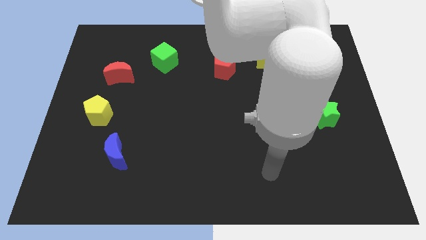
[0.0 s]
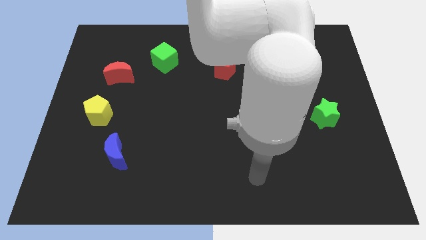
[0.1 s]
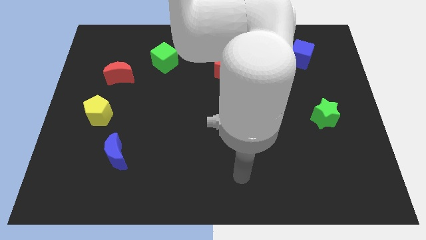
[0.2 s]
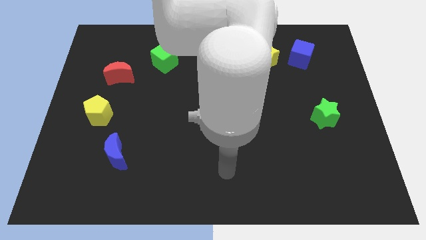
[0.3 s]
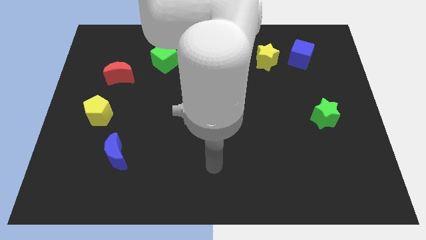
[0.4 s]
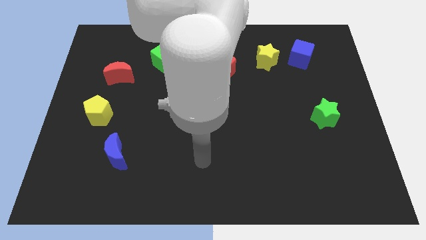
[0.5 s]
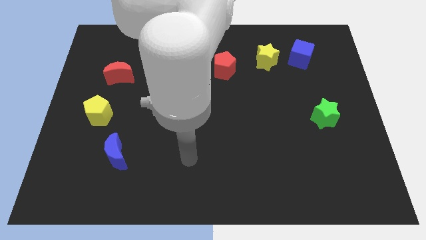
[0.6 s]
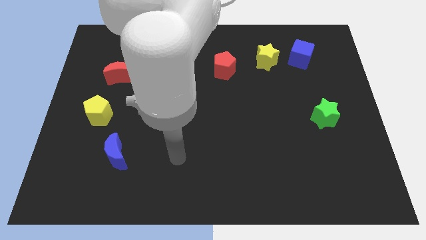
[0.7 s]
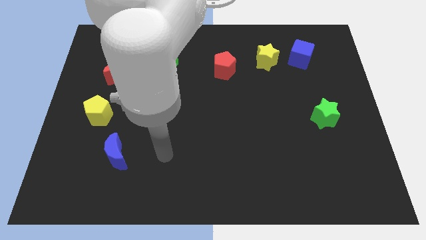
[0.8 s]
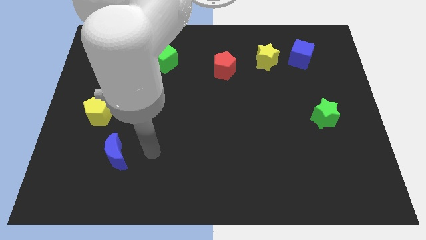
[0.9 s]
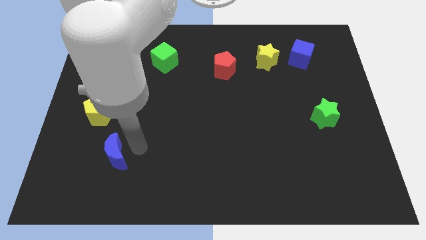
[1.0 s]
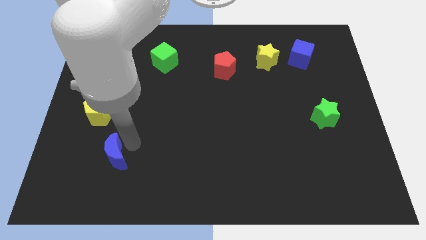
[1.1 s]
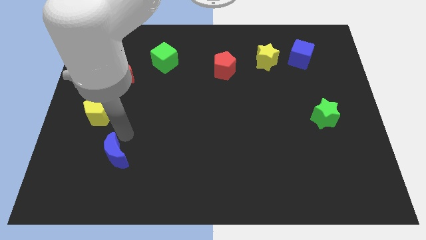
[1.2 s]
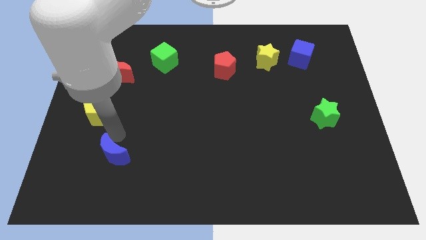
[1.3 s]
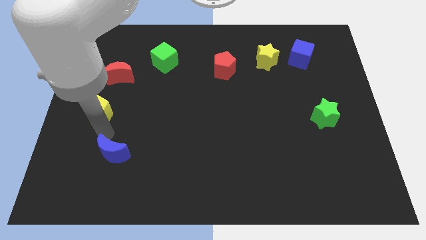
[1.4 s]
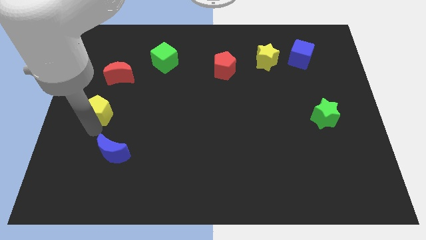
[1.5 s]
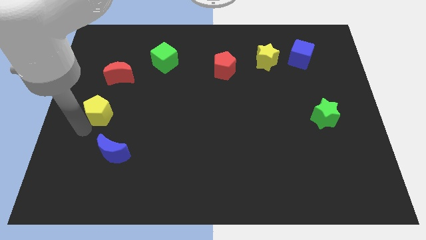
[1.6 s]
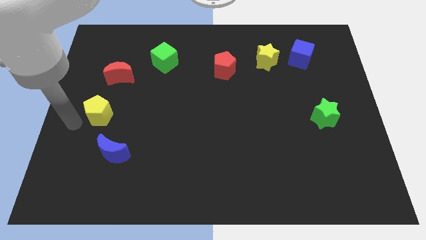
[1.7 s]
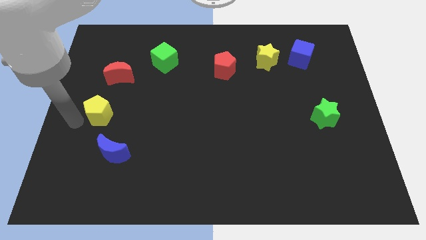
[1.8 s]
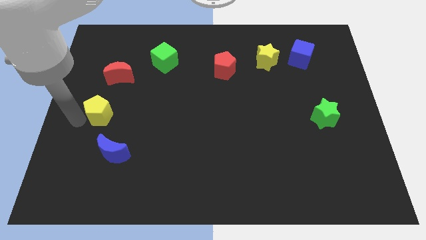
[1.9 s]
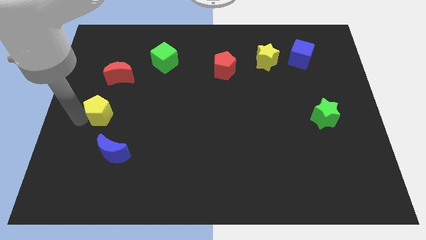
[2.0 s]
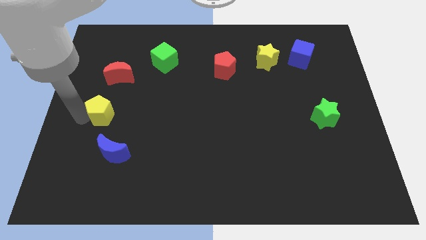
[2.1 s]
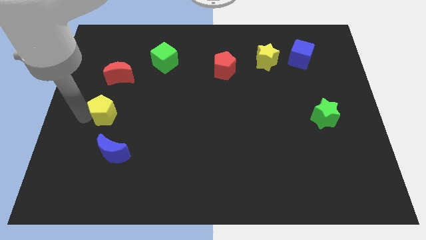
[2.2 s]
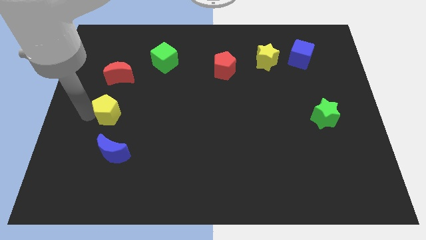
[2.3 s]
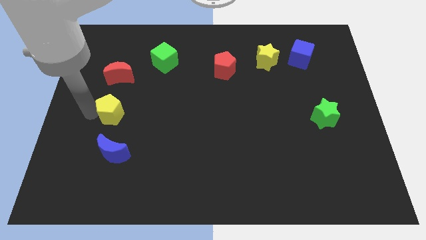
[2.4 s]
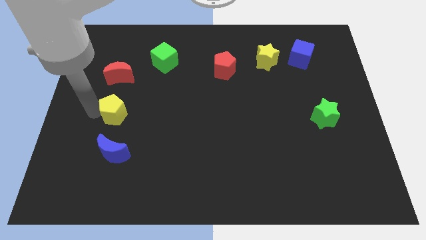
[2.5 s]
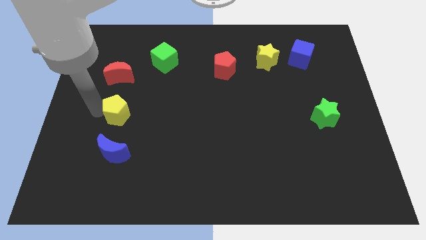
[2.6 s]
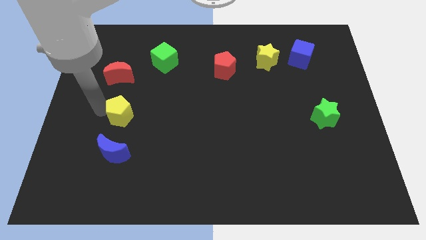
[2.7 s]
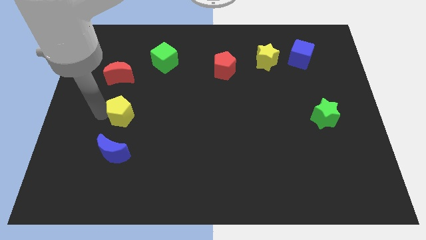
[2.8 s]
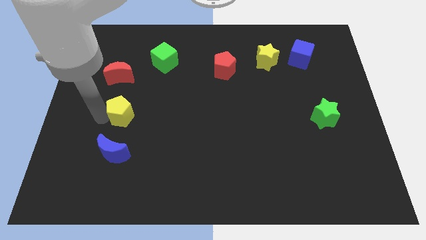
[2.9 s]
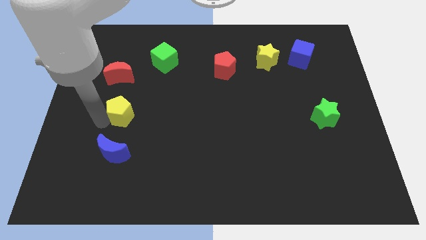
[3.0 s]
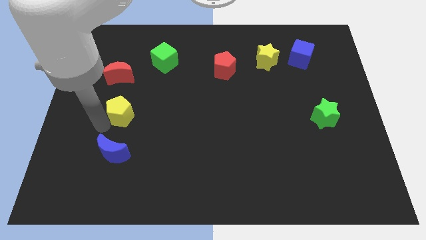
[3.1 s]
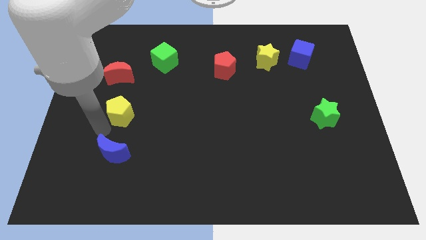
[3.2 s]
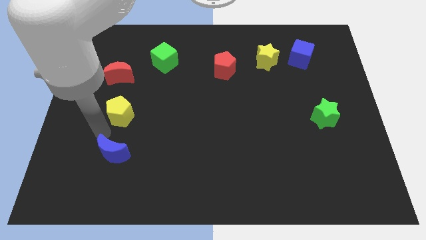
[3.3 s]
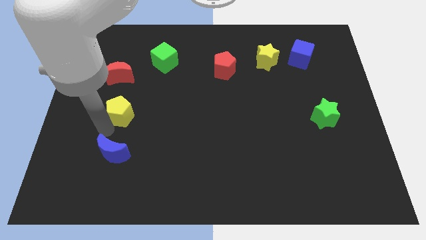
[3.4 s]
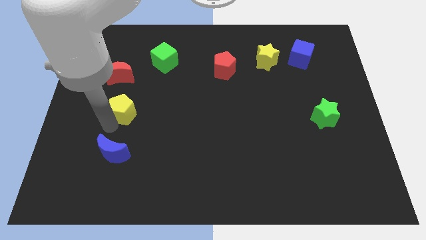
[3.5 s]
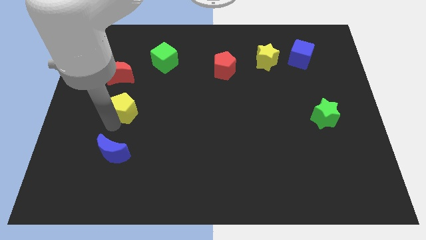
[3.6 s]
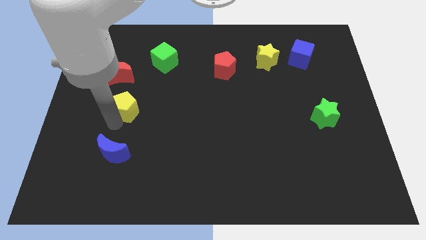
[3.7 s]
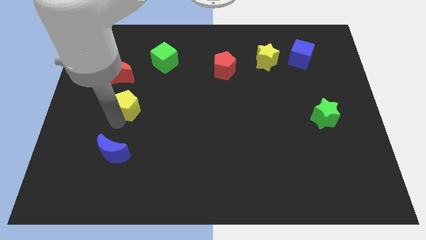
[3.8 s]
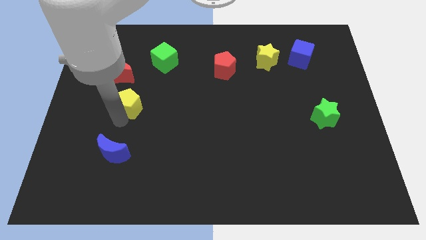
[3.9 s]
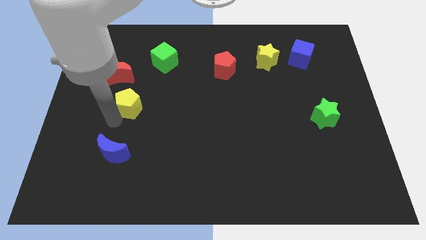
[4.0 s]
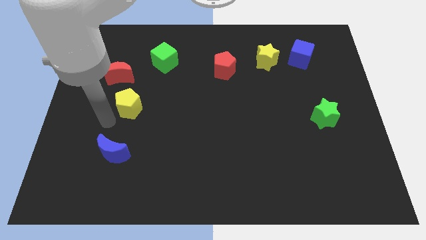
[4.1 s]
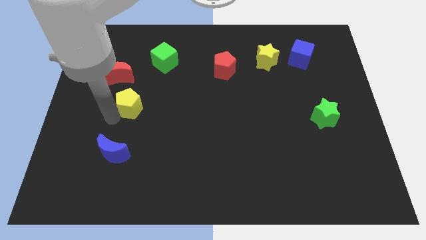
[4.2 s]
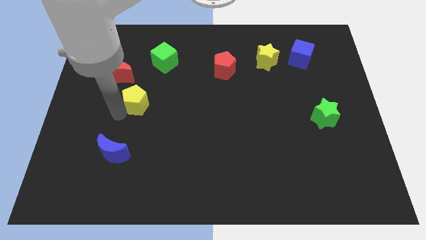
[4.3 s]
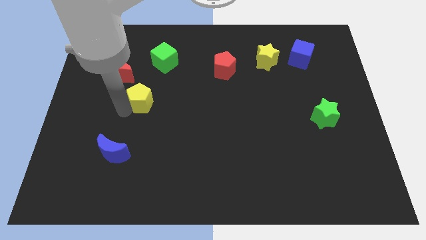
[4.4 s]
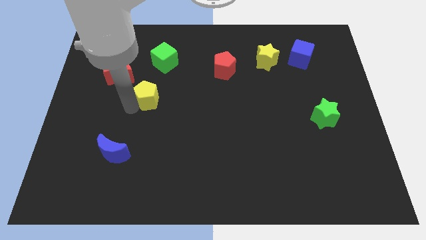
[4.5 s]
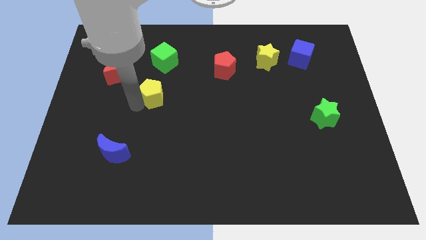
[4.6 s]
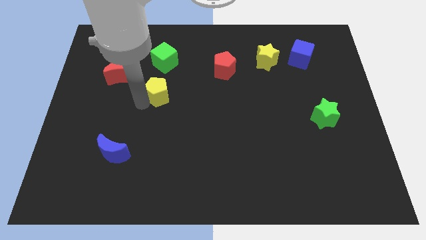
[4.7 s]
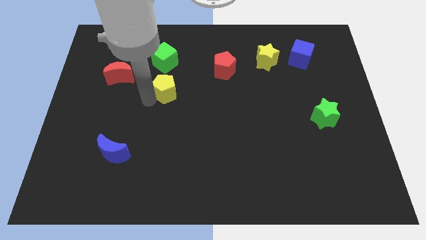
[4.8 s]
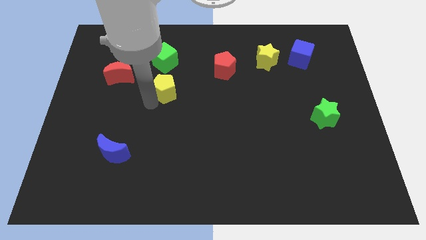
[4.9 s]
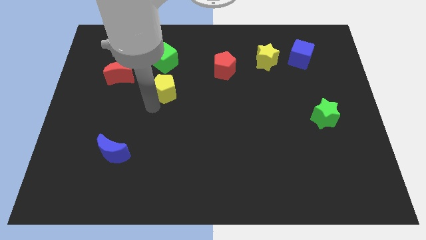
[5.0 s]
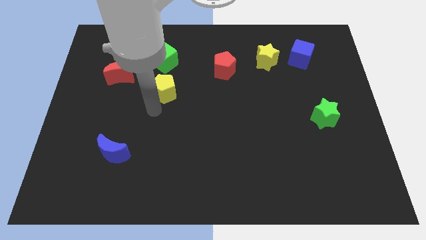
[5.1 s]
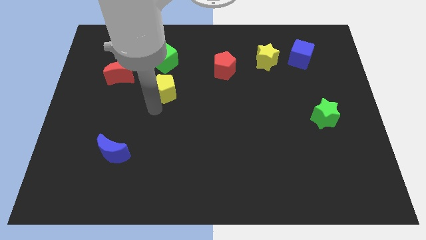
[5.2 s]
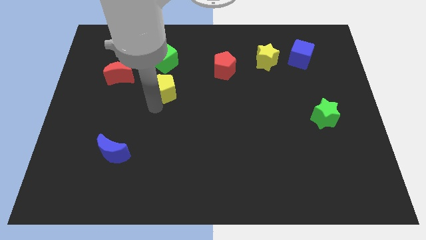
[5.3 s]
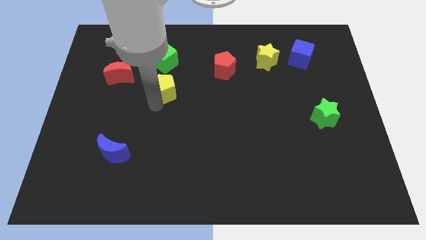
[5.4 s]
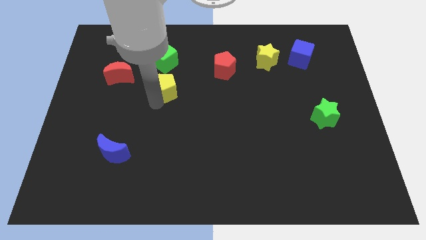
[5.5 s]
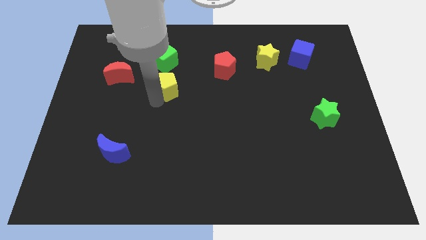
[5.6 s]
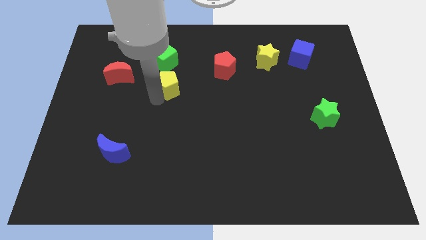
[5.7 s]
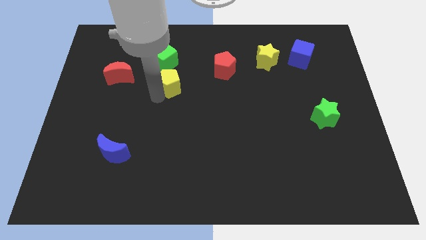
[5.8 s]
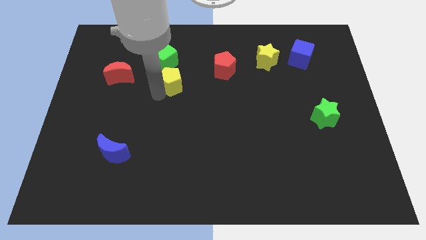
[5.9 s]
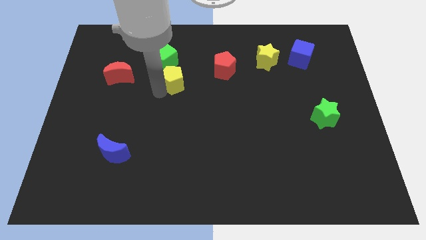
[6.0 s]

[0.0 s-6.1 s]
put the yellow pentagon just left of the red pentagon
